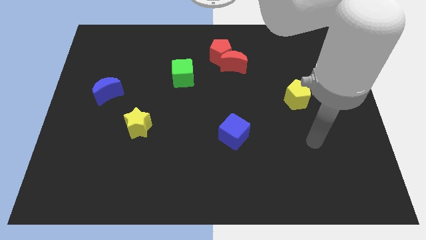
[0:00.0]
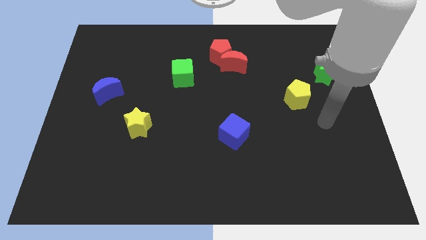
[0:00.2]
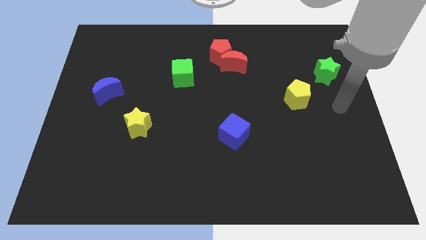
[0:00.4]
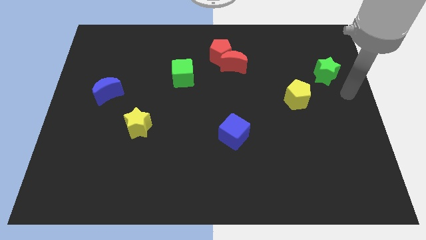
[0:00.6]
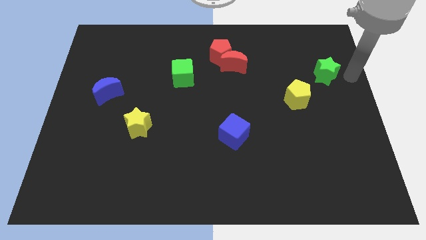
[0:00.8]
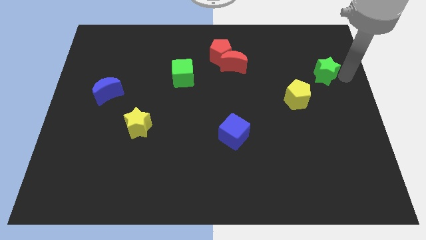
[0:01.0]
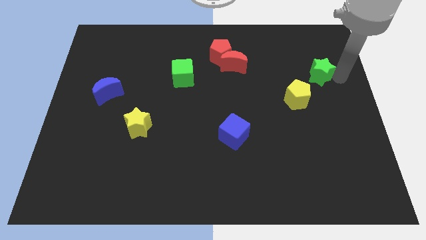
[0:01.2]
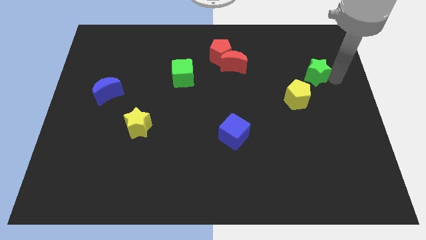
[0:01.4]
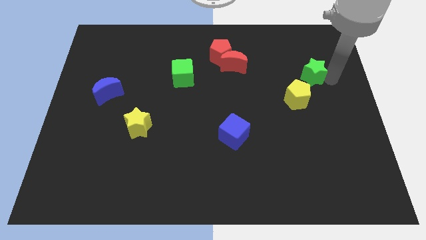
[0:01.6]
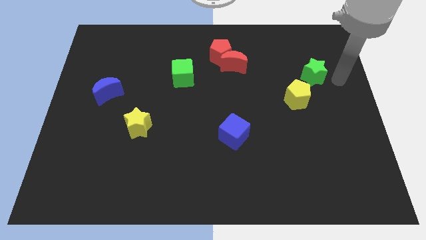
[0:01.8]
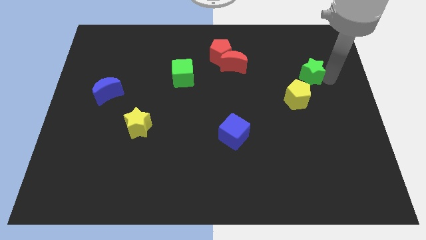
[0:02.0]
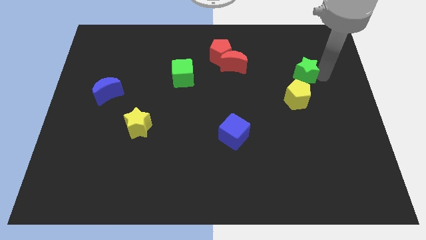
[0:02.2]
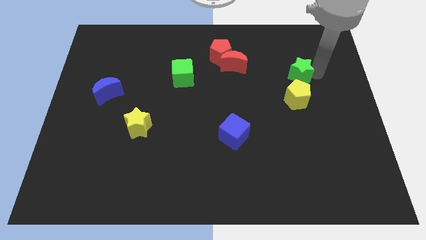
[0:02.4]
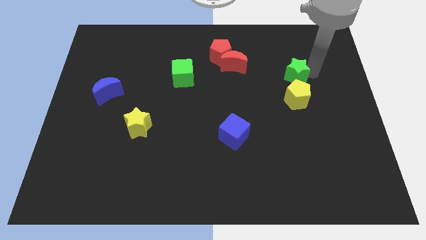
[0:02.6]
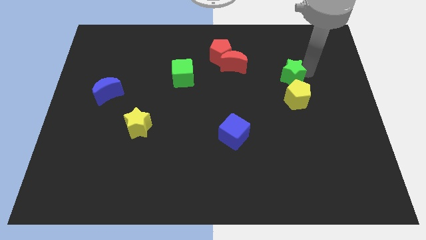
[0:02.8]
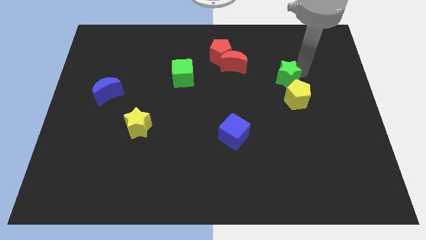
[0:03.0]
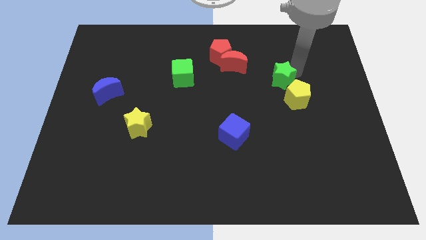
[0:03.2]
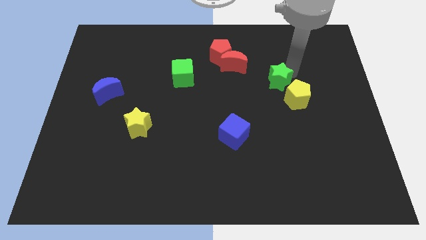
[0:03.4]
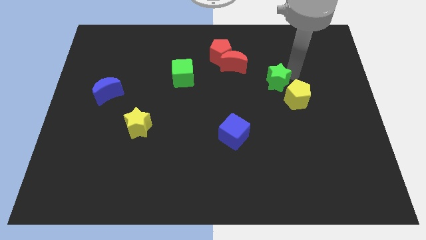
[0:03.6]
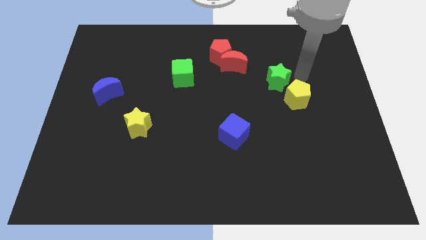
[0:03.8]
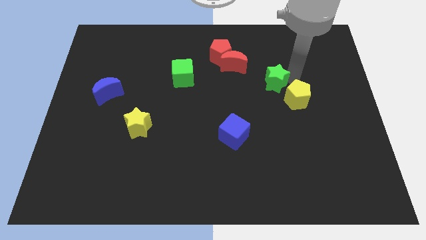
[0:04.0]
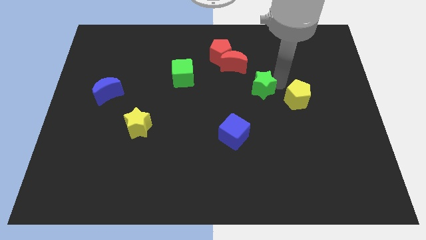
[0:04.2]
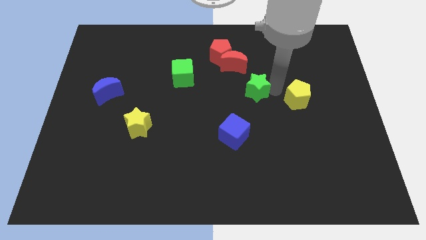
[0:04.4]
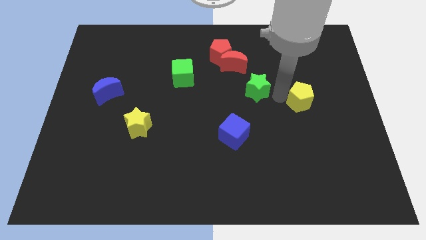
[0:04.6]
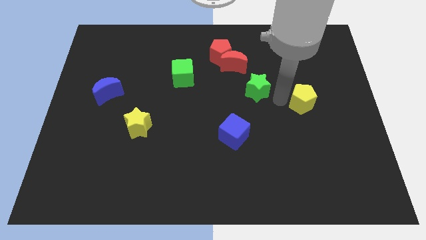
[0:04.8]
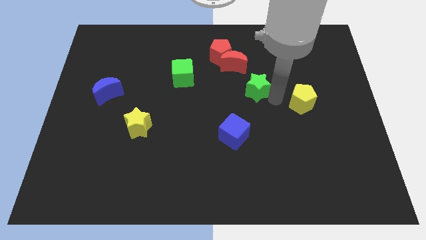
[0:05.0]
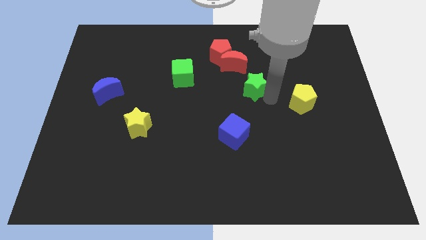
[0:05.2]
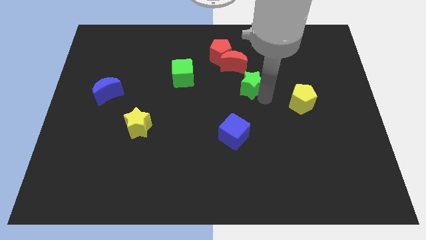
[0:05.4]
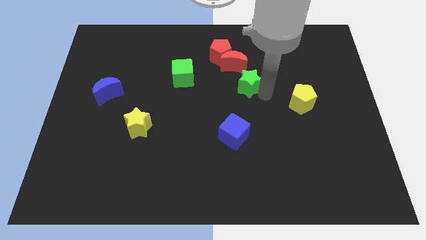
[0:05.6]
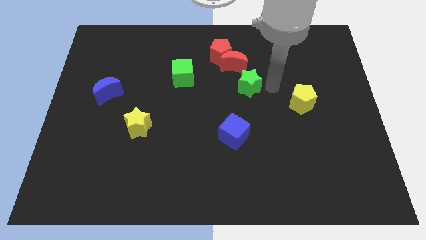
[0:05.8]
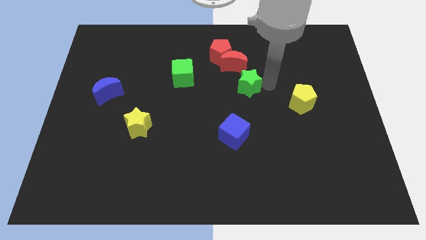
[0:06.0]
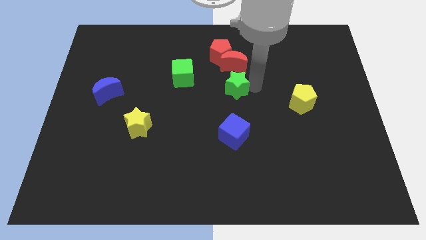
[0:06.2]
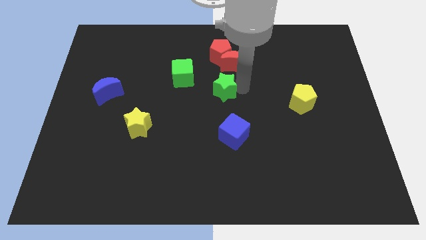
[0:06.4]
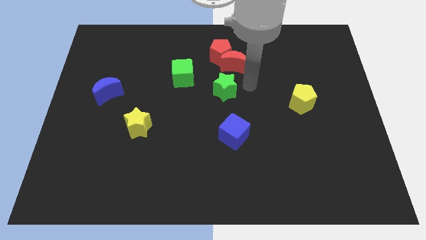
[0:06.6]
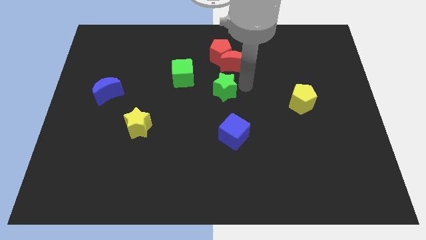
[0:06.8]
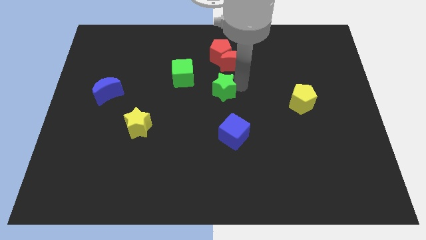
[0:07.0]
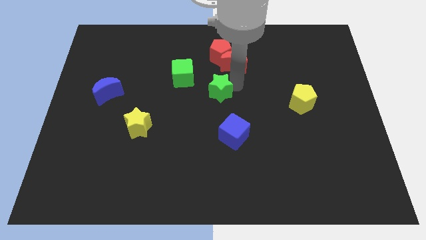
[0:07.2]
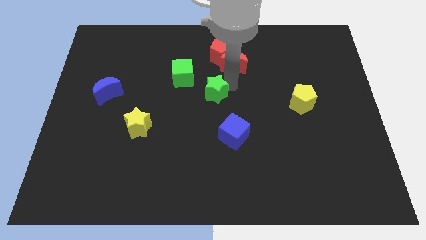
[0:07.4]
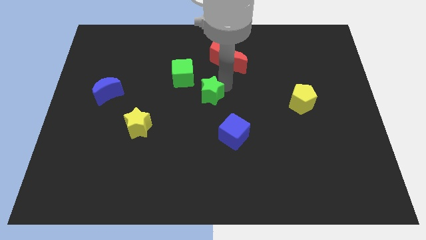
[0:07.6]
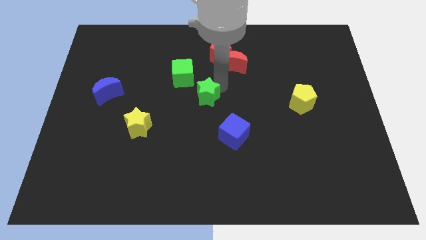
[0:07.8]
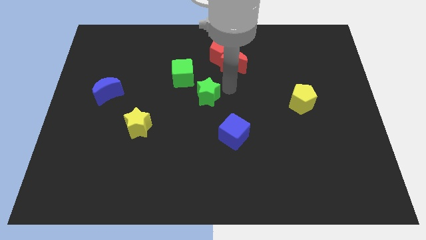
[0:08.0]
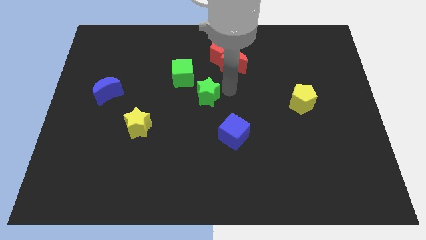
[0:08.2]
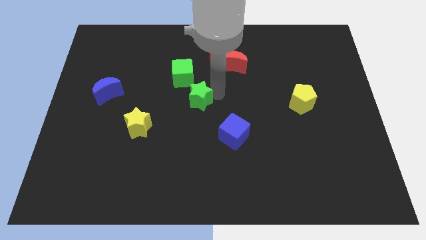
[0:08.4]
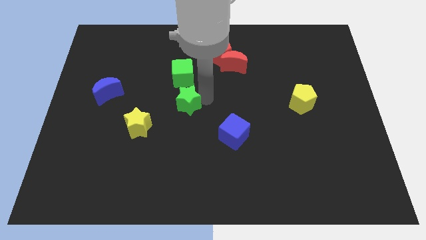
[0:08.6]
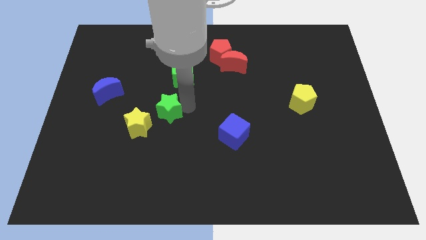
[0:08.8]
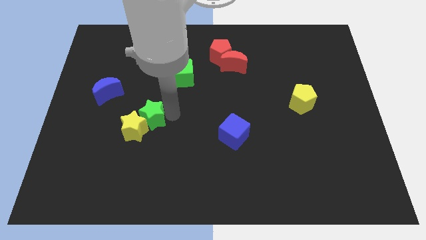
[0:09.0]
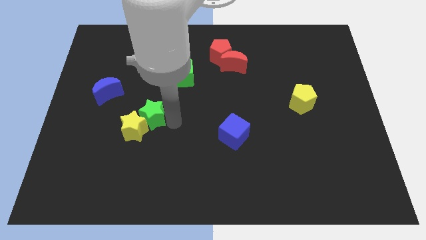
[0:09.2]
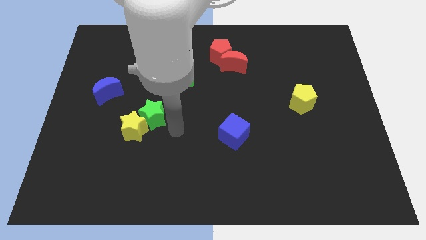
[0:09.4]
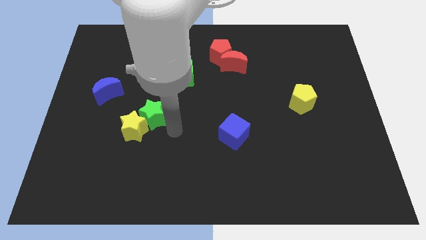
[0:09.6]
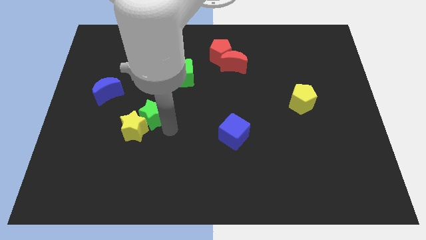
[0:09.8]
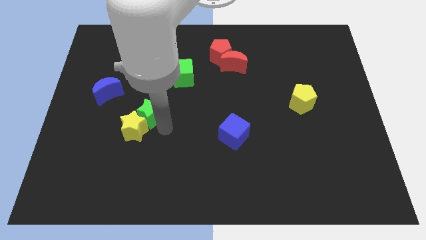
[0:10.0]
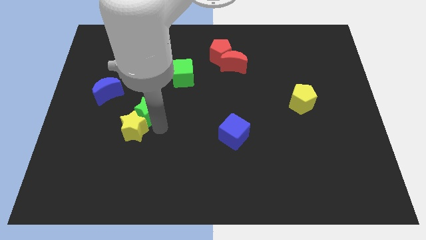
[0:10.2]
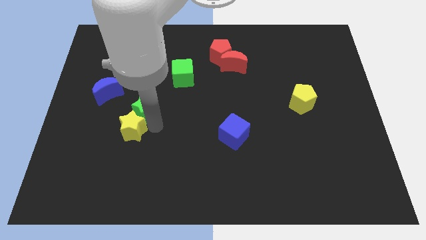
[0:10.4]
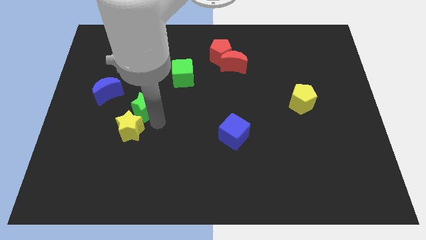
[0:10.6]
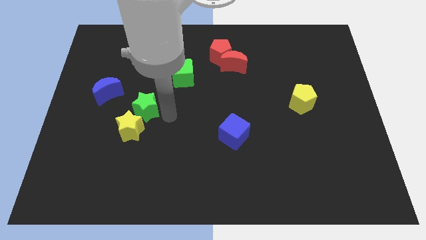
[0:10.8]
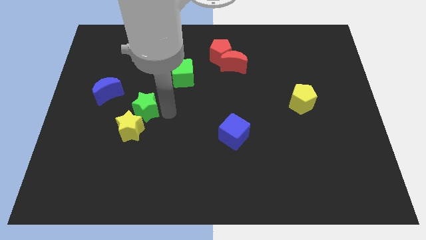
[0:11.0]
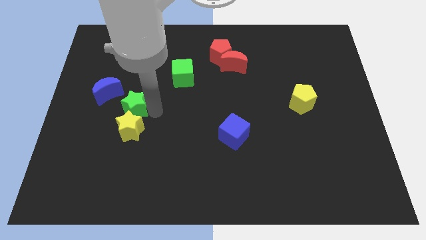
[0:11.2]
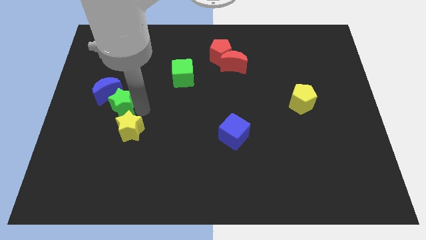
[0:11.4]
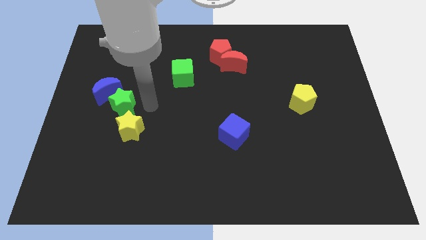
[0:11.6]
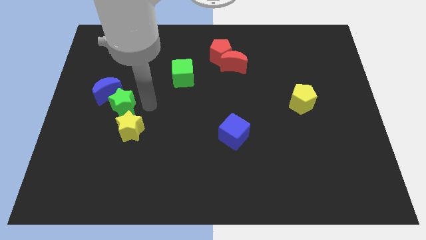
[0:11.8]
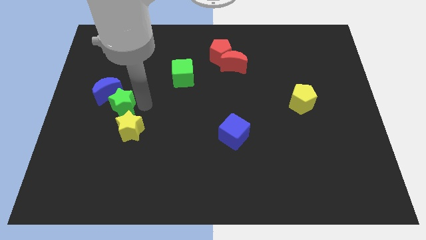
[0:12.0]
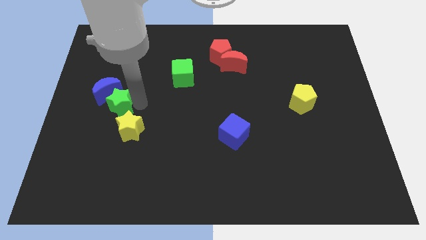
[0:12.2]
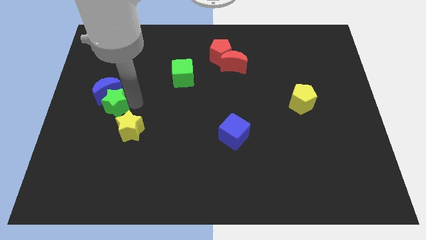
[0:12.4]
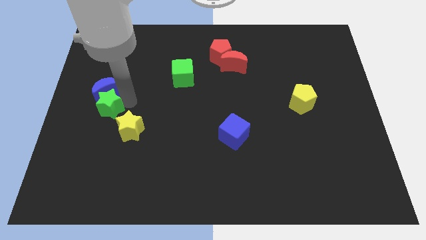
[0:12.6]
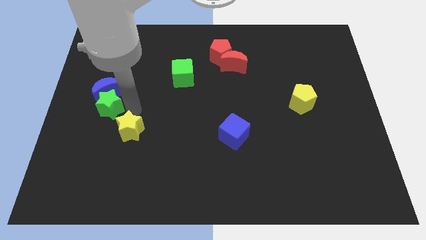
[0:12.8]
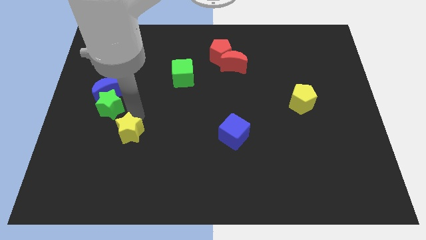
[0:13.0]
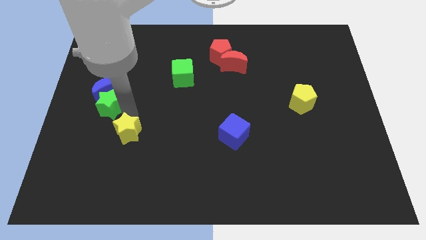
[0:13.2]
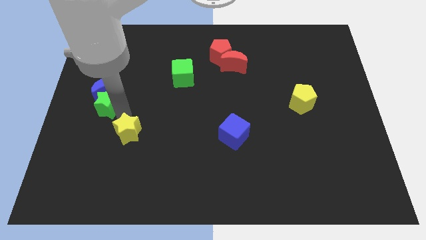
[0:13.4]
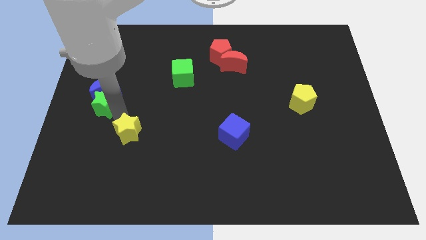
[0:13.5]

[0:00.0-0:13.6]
put the green star to the center left
